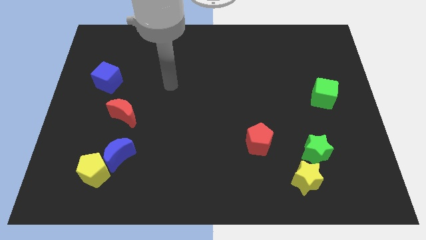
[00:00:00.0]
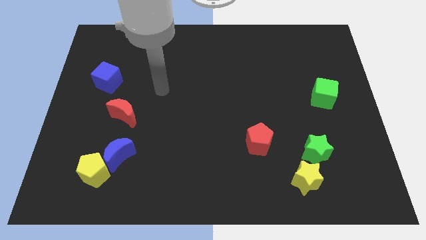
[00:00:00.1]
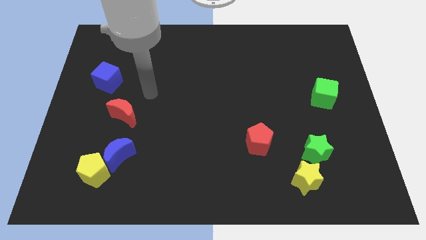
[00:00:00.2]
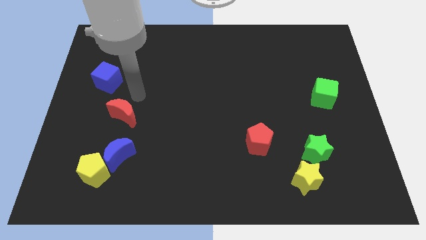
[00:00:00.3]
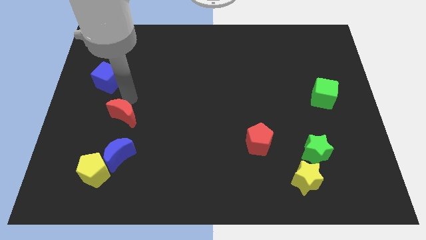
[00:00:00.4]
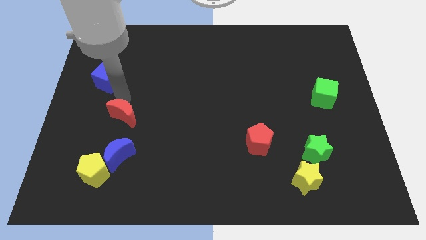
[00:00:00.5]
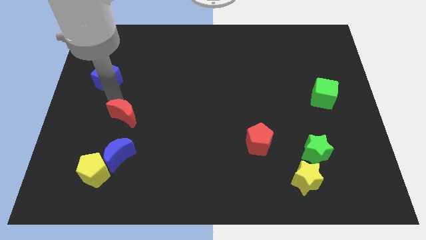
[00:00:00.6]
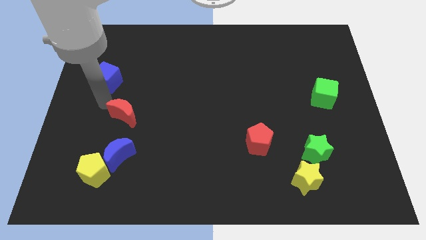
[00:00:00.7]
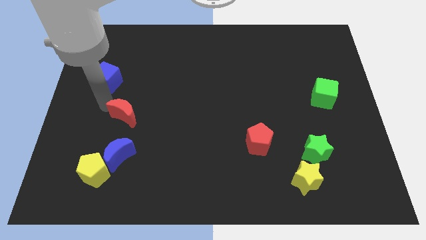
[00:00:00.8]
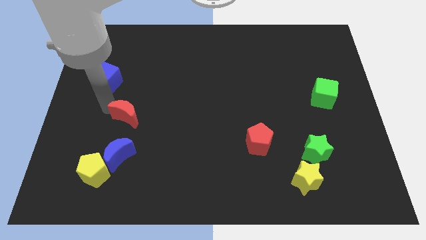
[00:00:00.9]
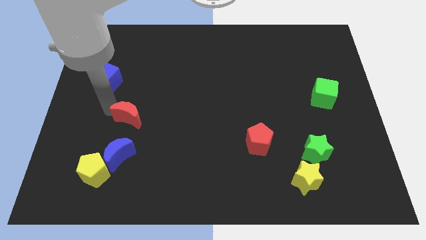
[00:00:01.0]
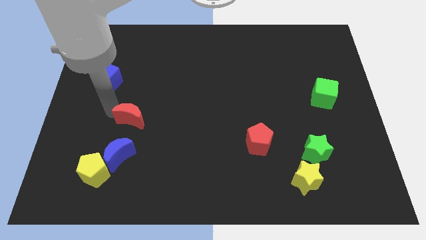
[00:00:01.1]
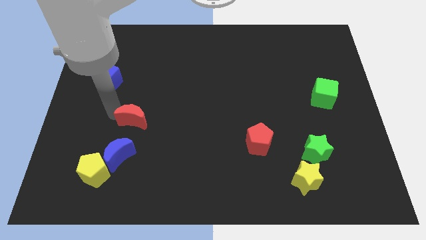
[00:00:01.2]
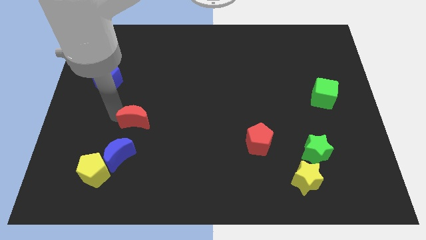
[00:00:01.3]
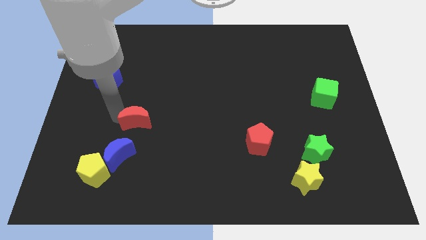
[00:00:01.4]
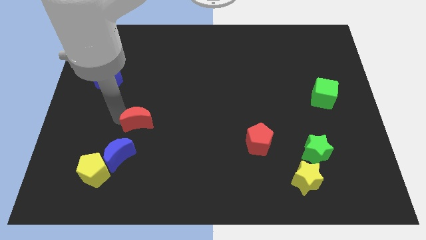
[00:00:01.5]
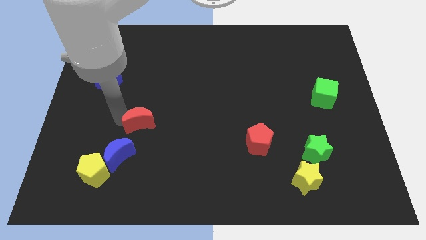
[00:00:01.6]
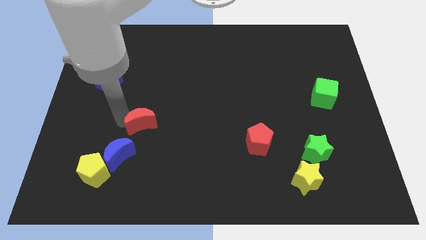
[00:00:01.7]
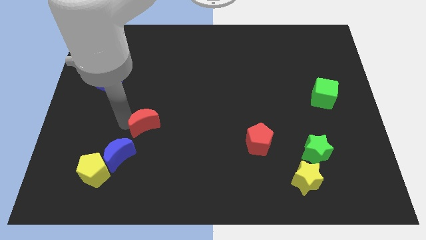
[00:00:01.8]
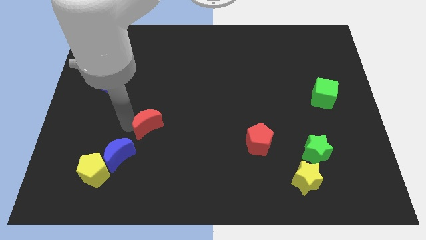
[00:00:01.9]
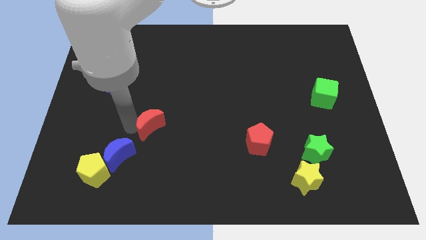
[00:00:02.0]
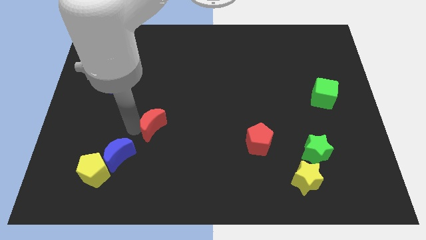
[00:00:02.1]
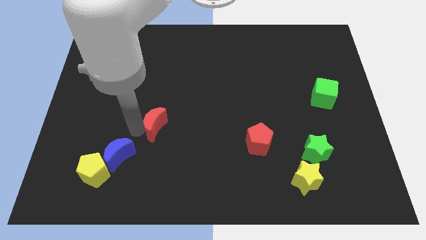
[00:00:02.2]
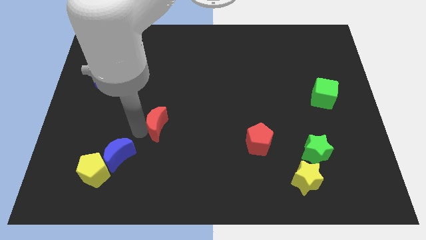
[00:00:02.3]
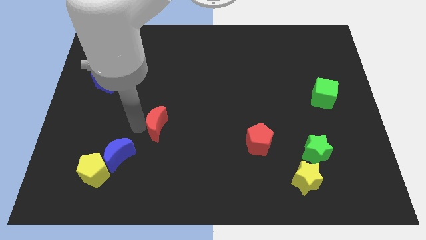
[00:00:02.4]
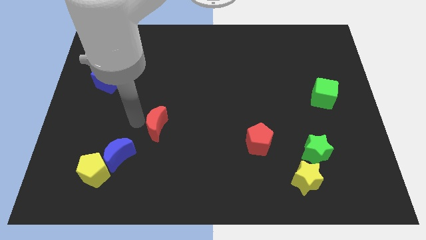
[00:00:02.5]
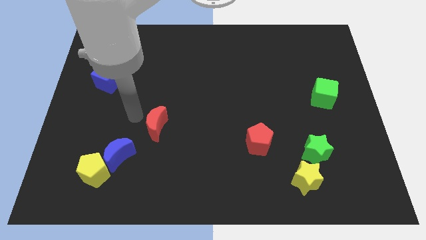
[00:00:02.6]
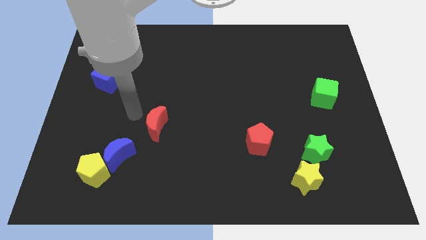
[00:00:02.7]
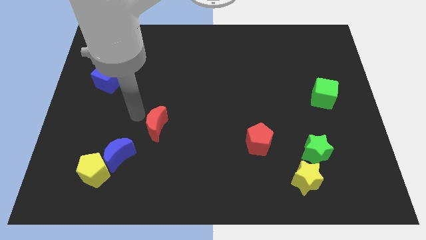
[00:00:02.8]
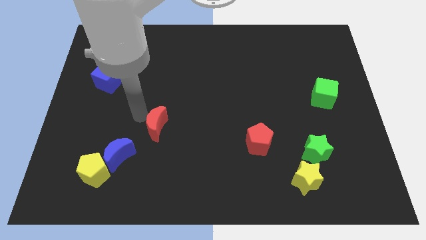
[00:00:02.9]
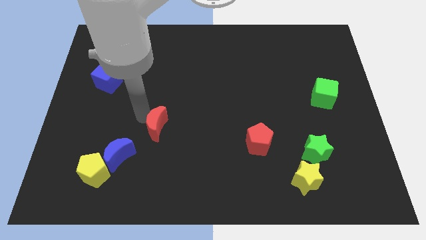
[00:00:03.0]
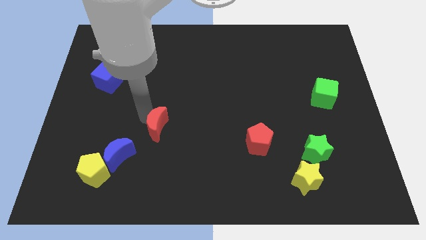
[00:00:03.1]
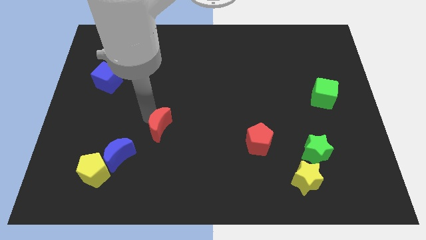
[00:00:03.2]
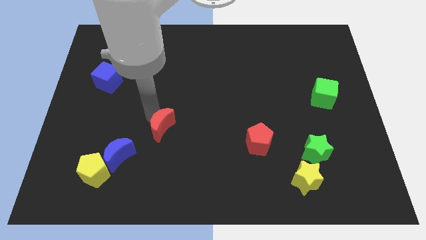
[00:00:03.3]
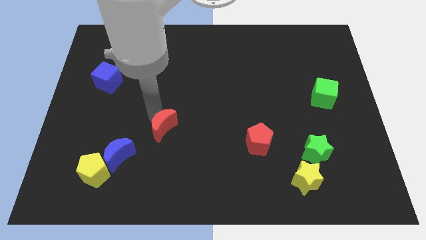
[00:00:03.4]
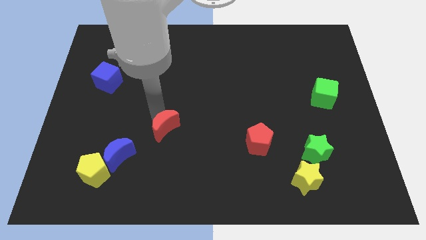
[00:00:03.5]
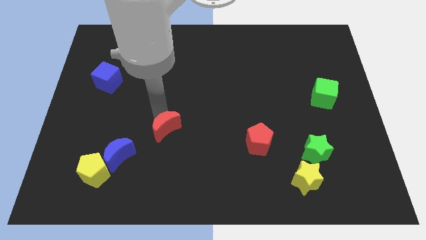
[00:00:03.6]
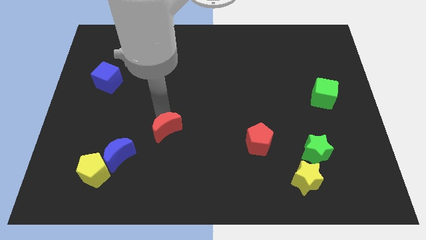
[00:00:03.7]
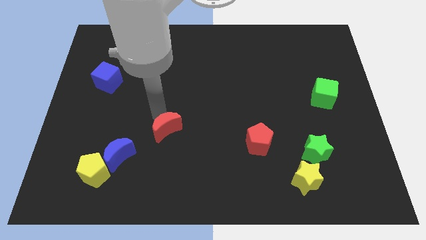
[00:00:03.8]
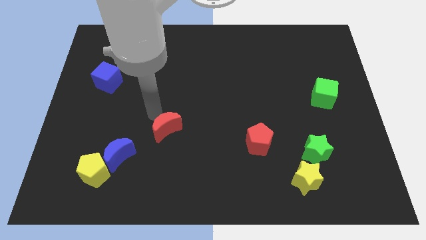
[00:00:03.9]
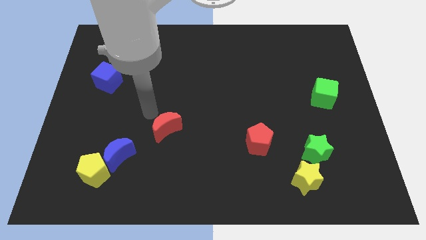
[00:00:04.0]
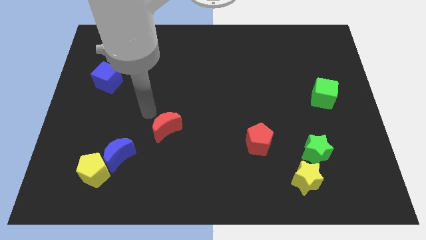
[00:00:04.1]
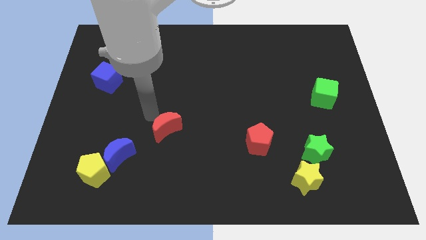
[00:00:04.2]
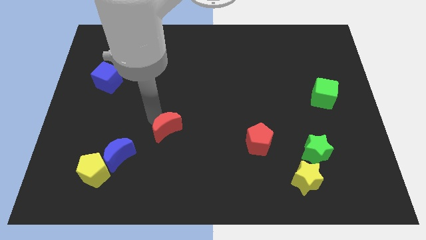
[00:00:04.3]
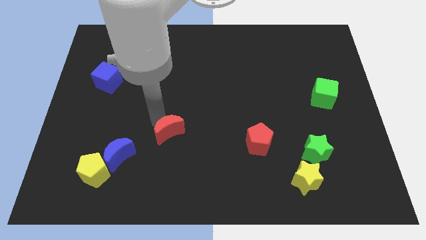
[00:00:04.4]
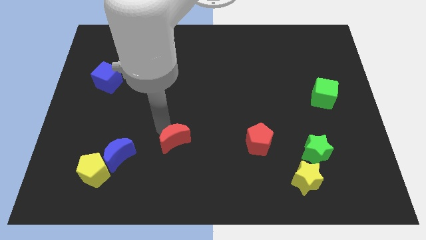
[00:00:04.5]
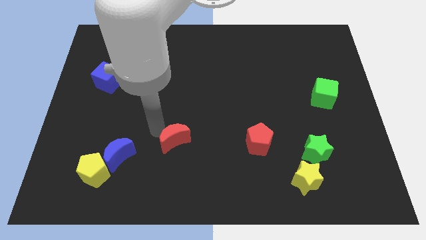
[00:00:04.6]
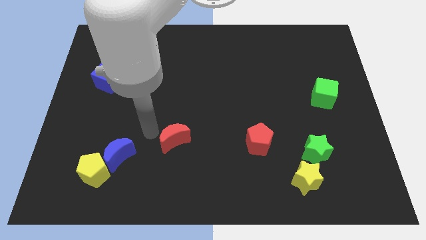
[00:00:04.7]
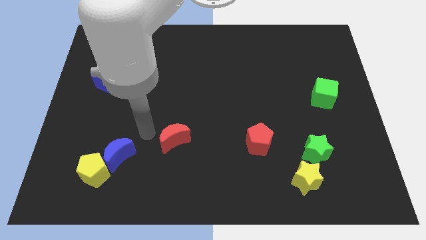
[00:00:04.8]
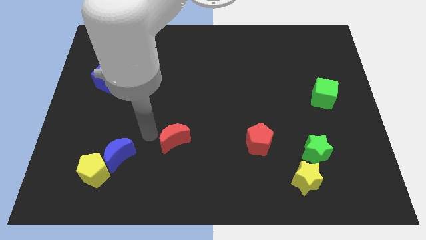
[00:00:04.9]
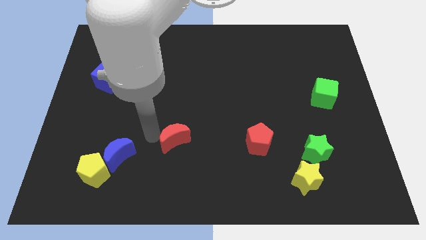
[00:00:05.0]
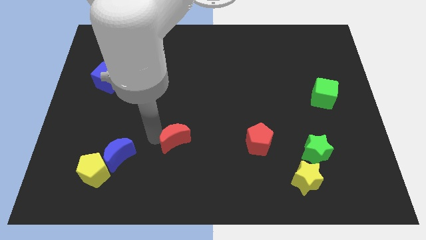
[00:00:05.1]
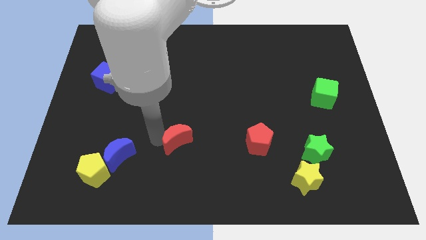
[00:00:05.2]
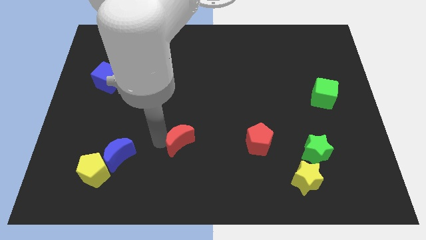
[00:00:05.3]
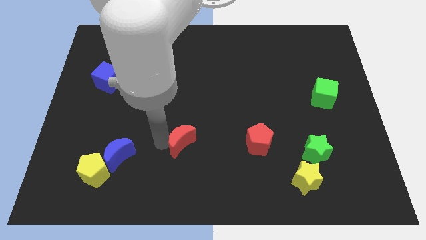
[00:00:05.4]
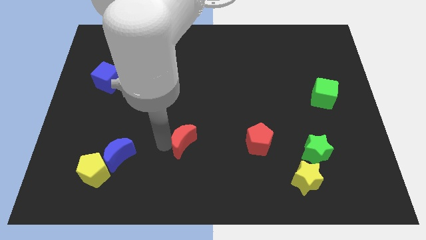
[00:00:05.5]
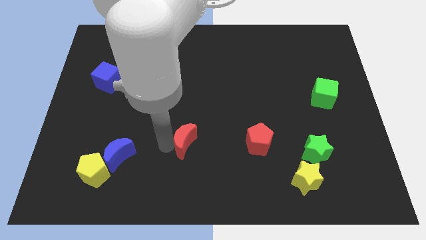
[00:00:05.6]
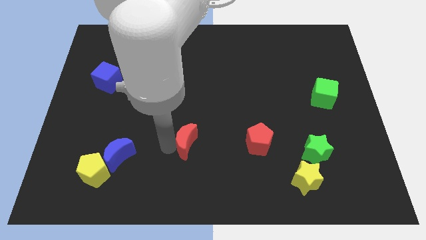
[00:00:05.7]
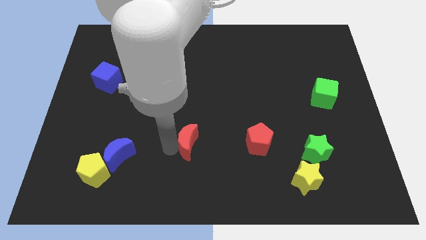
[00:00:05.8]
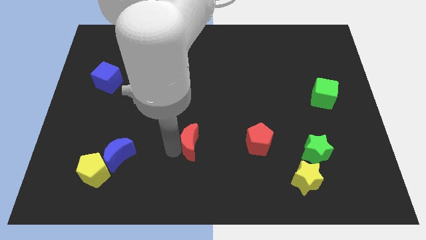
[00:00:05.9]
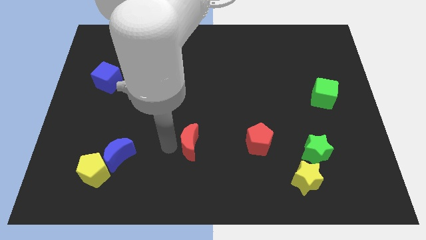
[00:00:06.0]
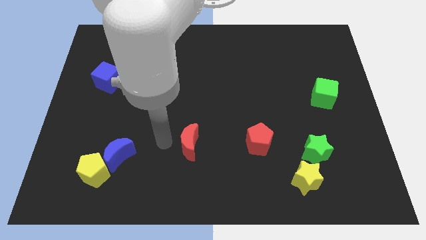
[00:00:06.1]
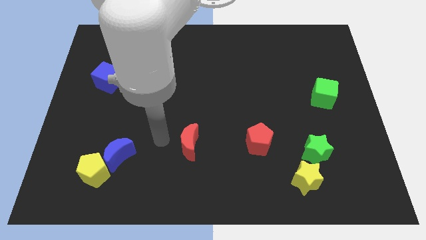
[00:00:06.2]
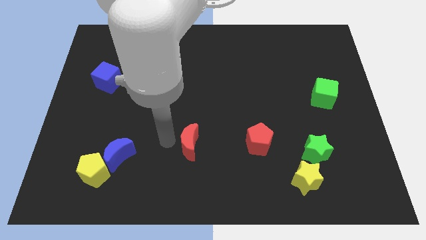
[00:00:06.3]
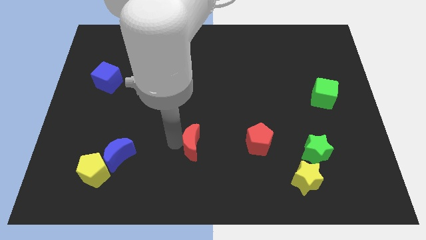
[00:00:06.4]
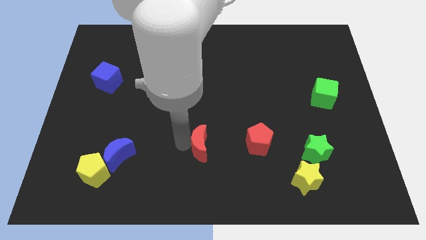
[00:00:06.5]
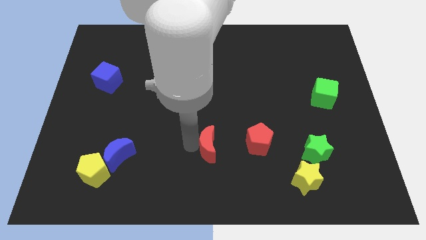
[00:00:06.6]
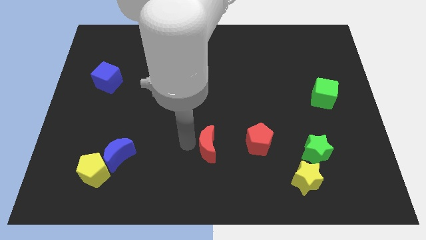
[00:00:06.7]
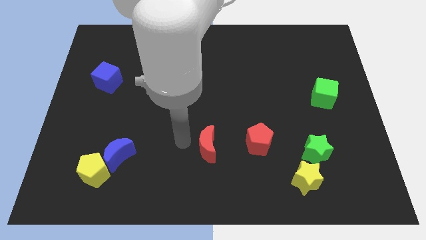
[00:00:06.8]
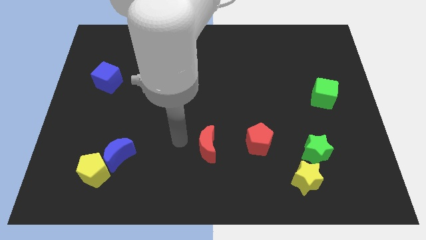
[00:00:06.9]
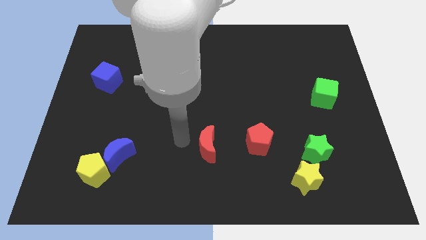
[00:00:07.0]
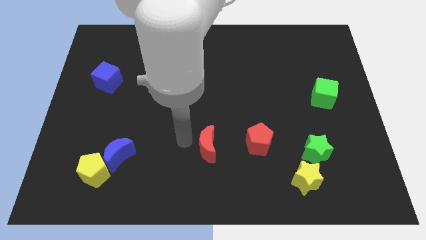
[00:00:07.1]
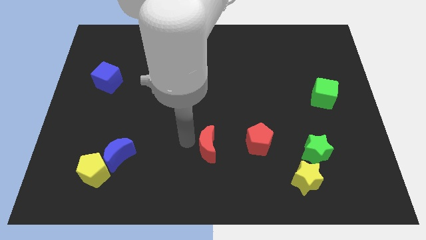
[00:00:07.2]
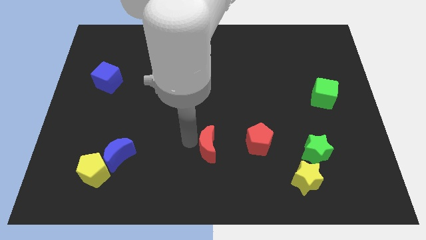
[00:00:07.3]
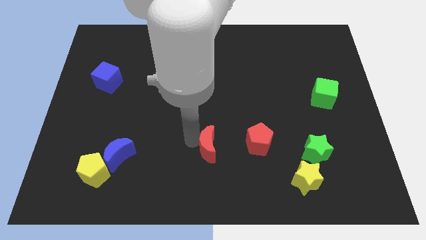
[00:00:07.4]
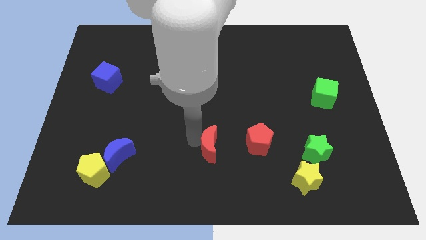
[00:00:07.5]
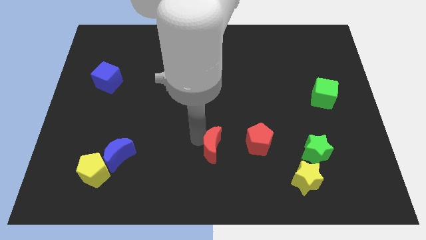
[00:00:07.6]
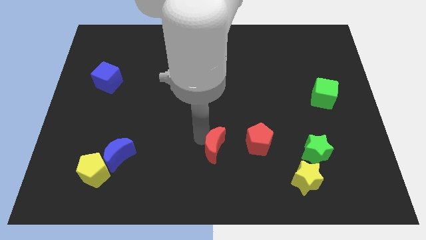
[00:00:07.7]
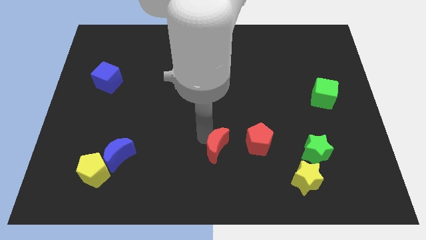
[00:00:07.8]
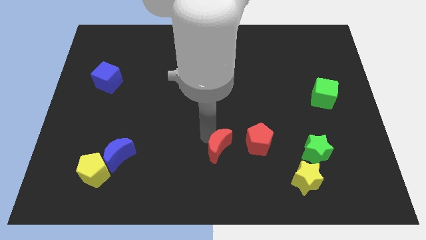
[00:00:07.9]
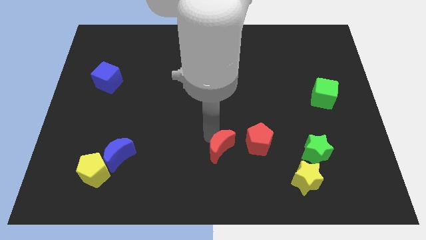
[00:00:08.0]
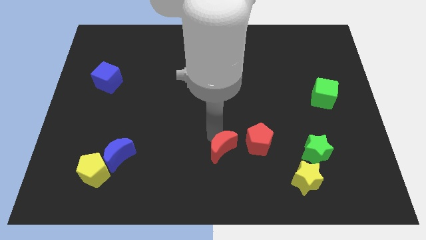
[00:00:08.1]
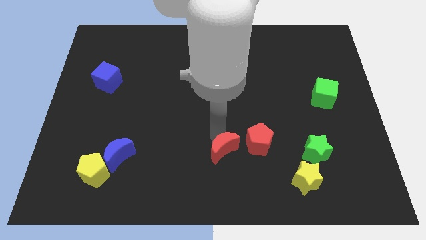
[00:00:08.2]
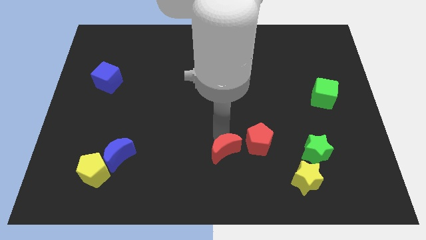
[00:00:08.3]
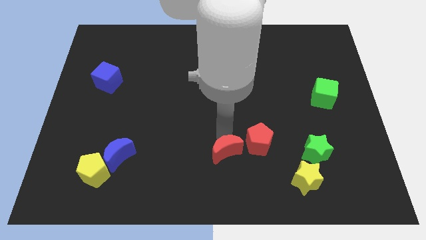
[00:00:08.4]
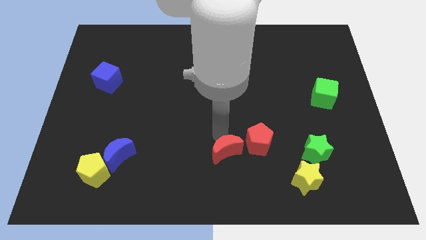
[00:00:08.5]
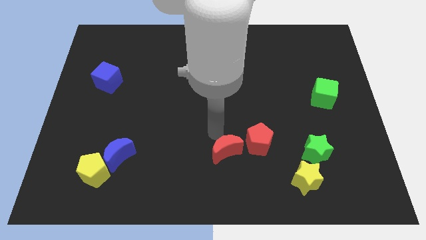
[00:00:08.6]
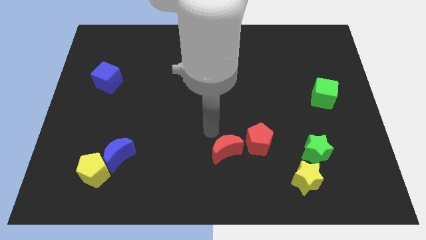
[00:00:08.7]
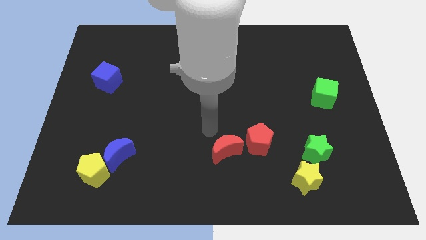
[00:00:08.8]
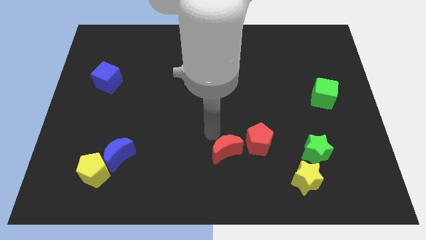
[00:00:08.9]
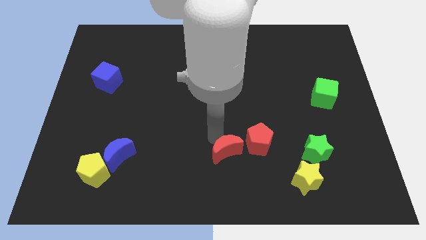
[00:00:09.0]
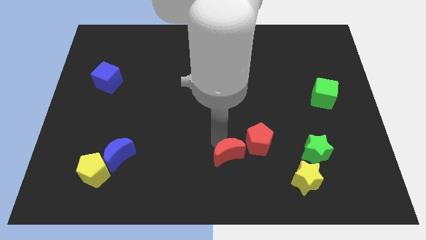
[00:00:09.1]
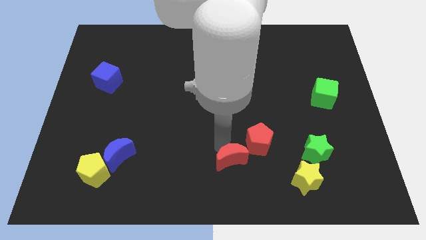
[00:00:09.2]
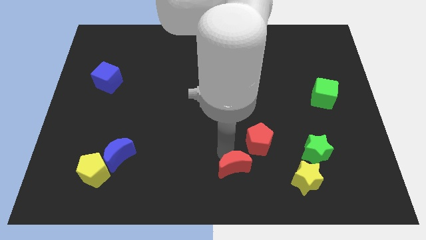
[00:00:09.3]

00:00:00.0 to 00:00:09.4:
put the red moon to the left of the yellow star
